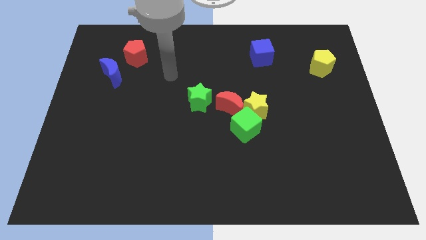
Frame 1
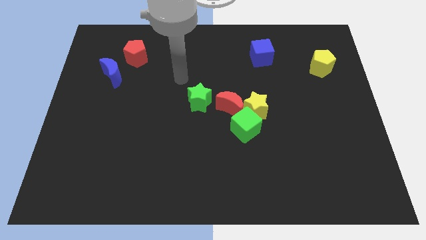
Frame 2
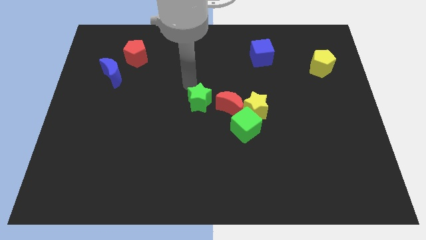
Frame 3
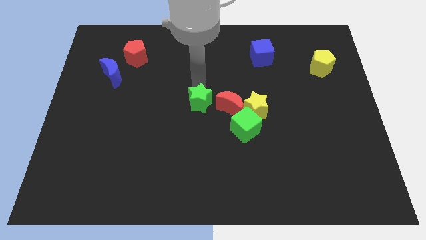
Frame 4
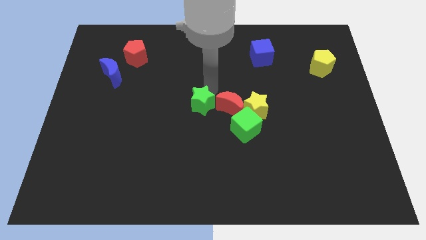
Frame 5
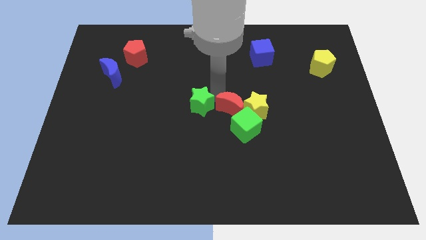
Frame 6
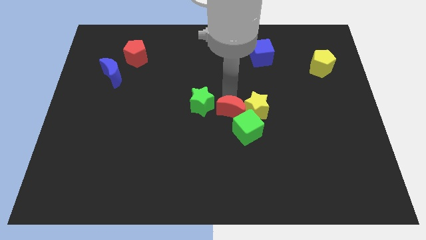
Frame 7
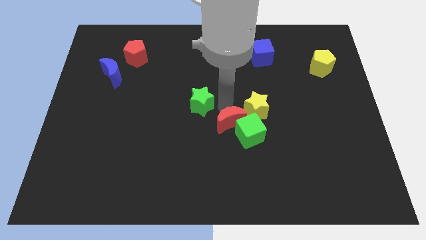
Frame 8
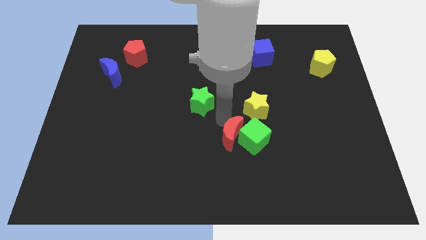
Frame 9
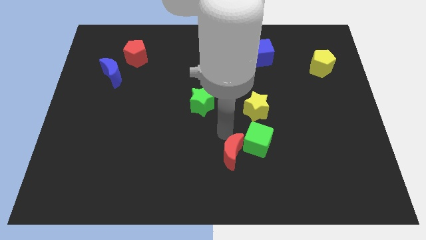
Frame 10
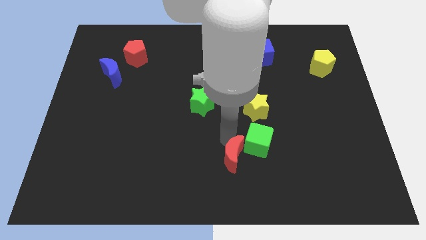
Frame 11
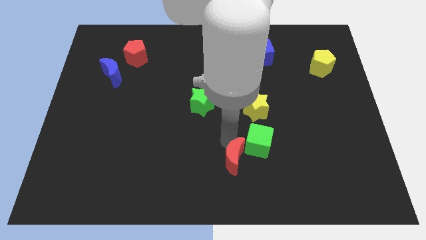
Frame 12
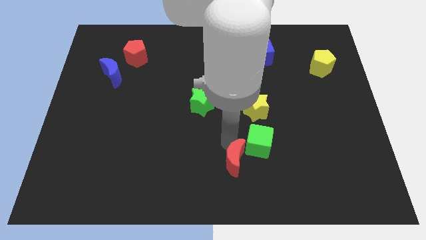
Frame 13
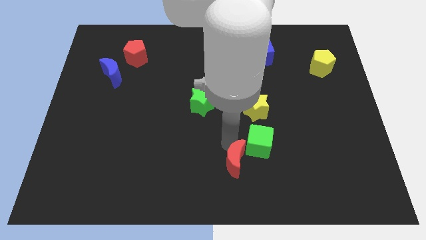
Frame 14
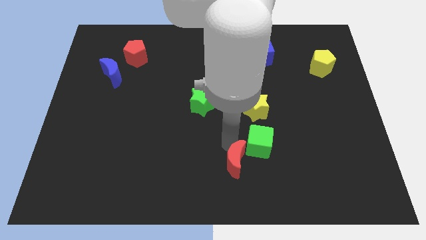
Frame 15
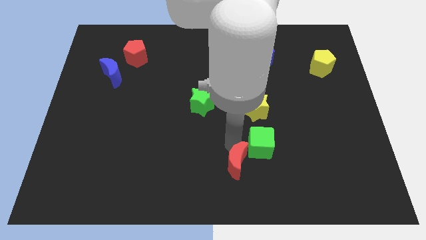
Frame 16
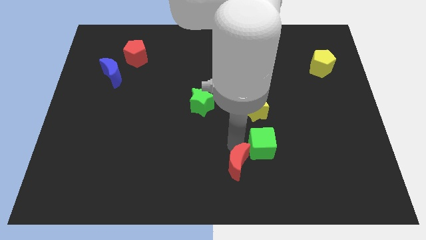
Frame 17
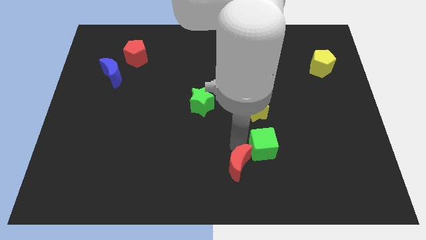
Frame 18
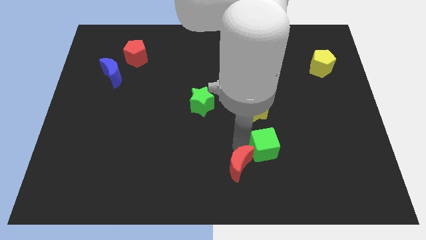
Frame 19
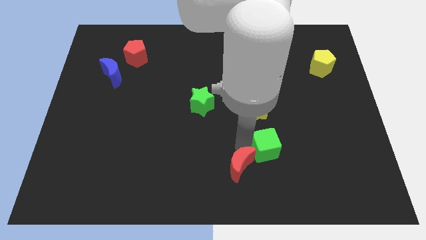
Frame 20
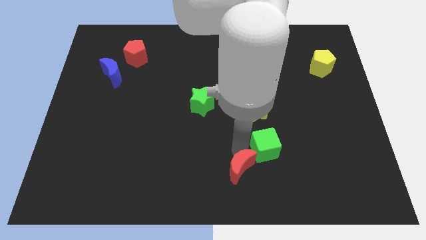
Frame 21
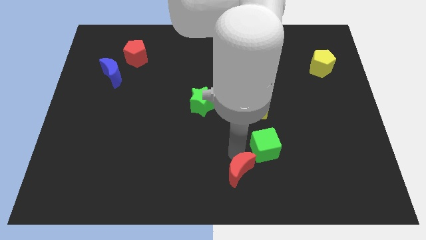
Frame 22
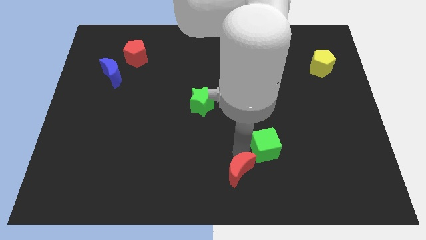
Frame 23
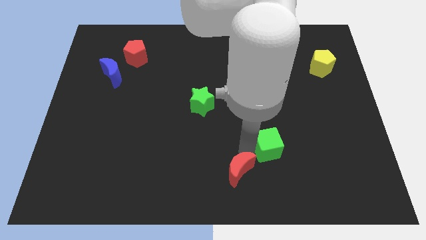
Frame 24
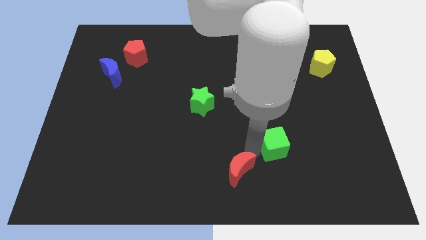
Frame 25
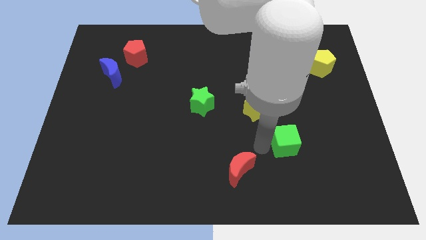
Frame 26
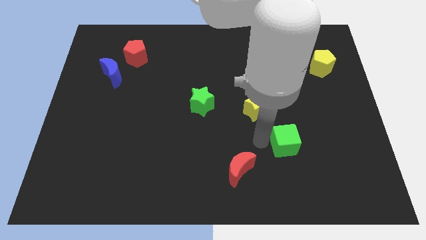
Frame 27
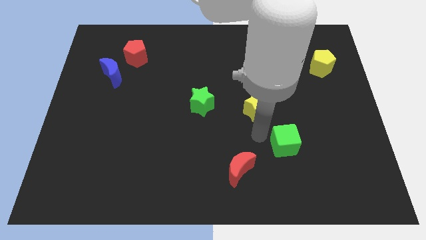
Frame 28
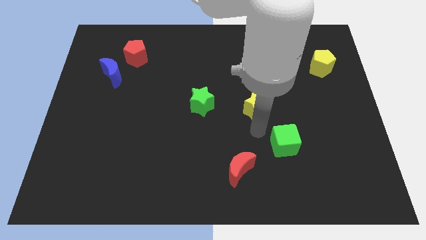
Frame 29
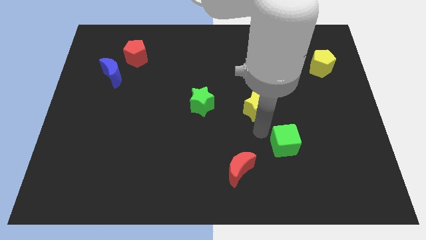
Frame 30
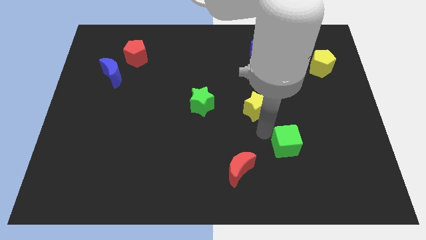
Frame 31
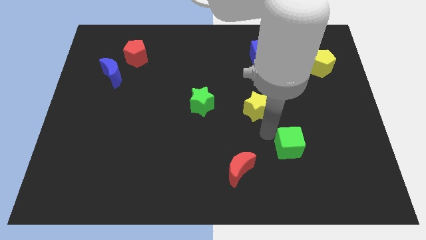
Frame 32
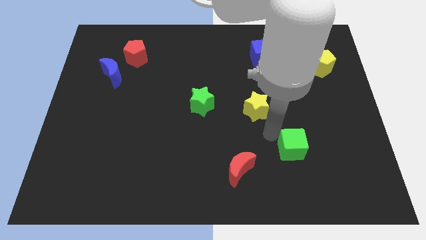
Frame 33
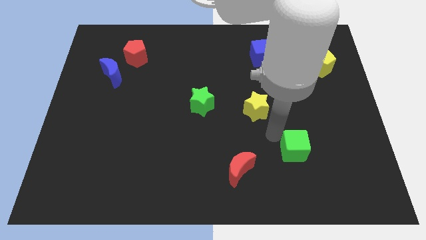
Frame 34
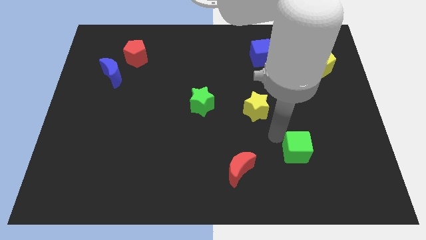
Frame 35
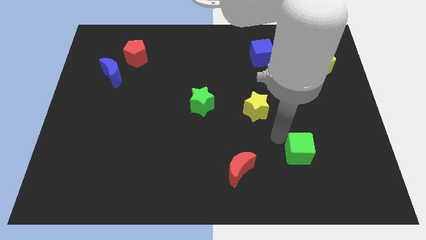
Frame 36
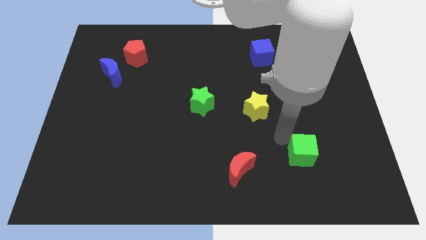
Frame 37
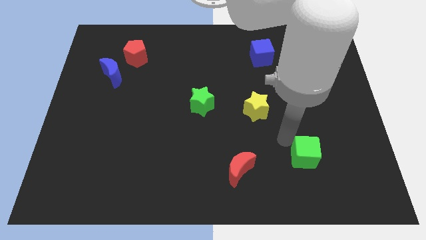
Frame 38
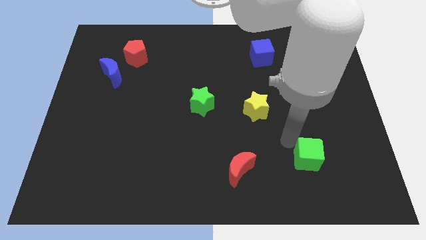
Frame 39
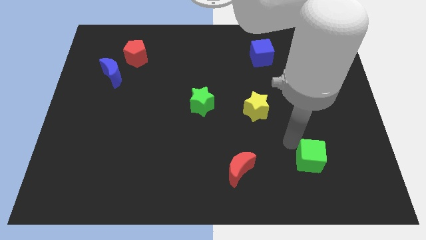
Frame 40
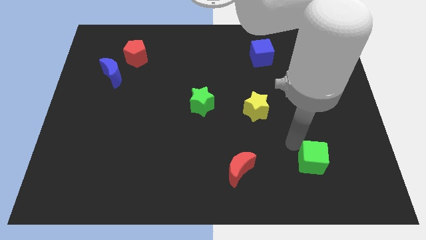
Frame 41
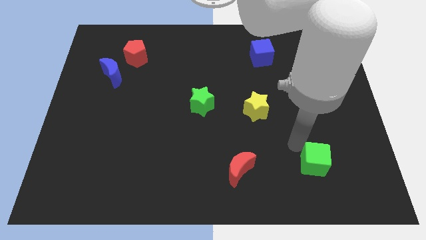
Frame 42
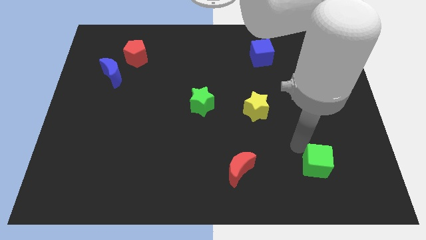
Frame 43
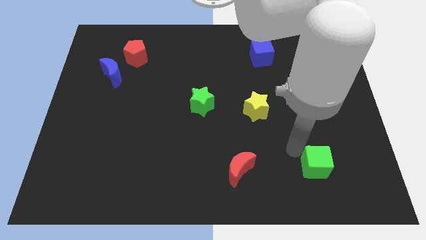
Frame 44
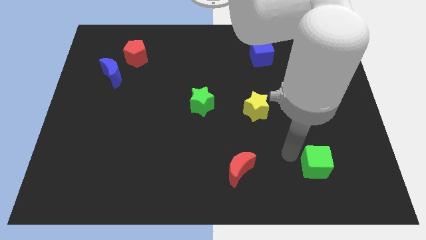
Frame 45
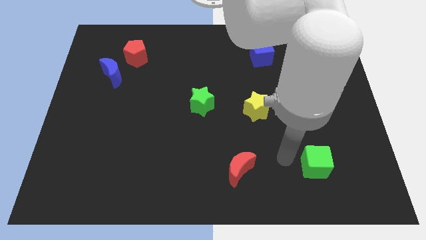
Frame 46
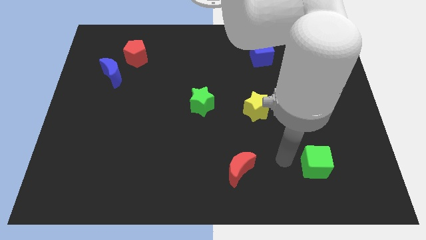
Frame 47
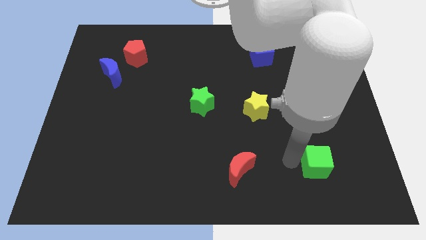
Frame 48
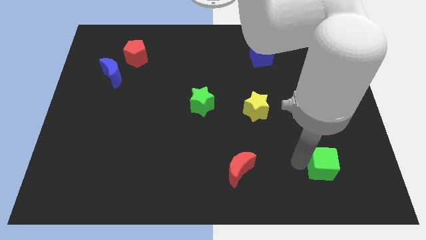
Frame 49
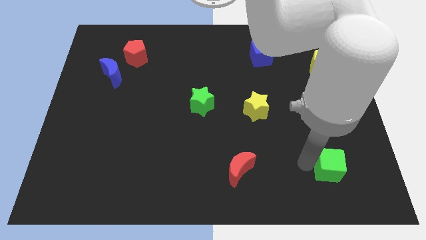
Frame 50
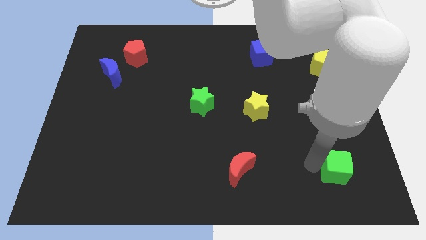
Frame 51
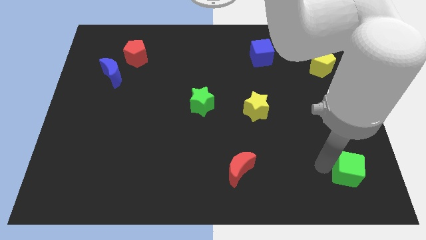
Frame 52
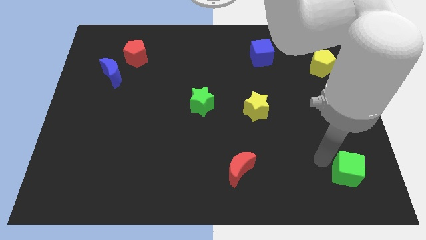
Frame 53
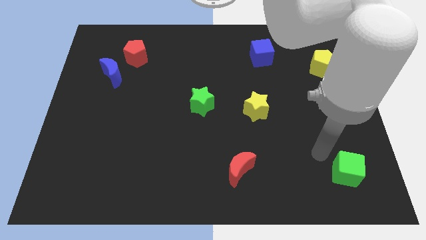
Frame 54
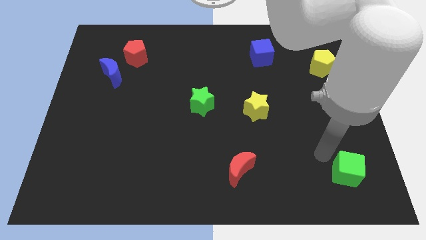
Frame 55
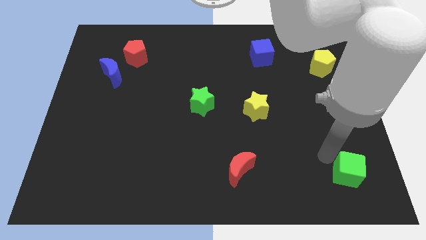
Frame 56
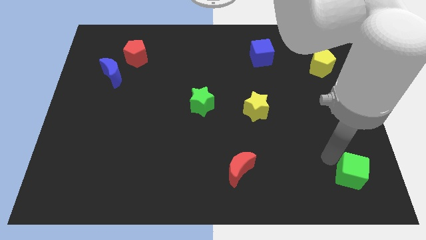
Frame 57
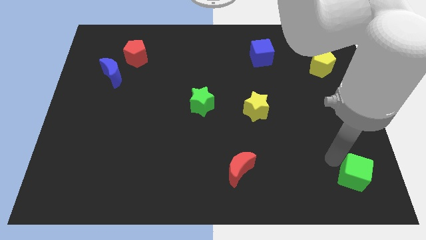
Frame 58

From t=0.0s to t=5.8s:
slide the green cube to the lower right corner

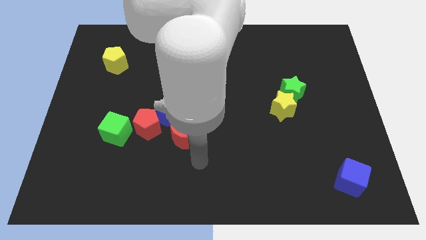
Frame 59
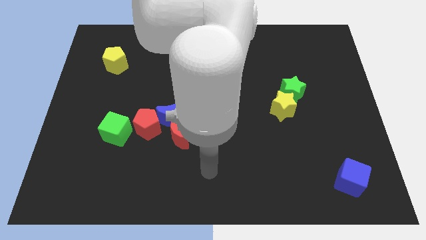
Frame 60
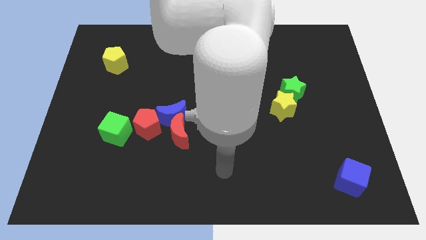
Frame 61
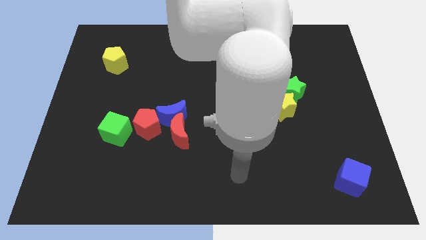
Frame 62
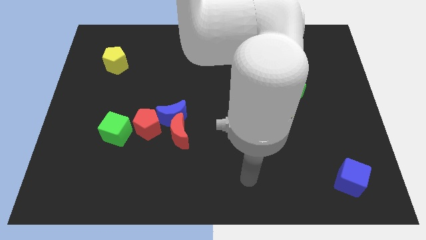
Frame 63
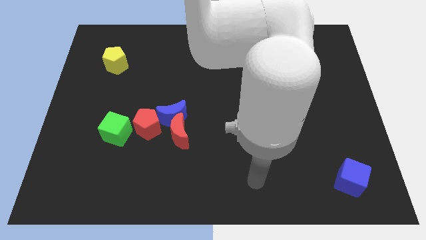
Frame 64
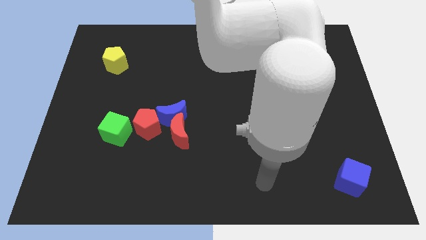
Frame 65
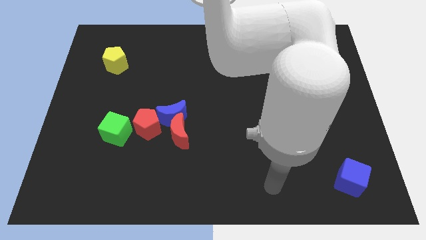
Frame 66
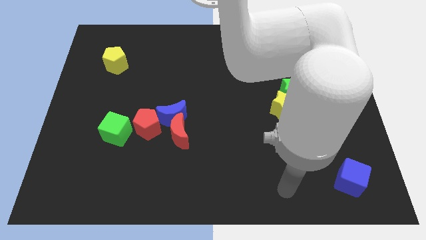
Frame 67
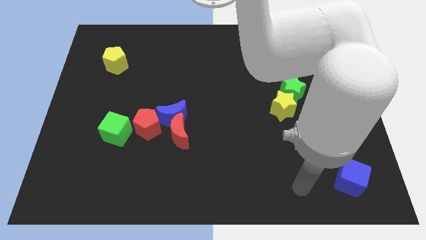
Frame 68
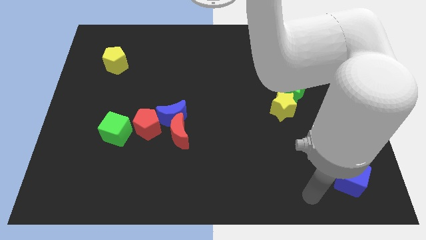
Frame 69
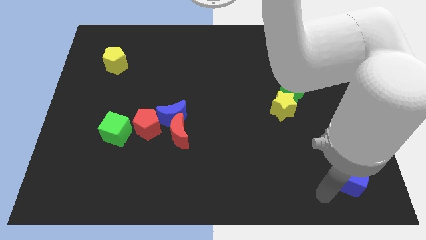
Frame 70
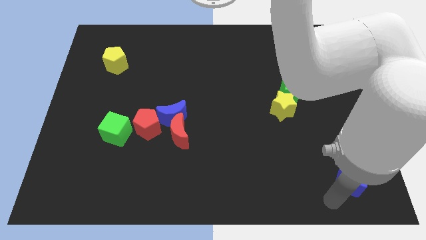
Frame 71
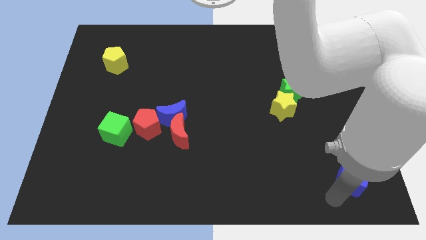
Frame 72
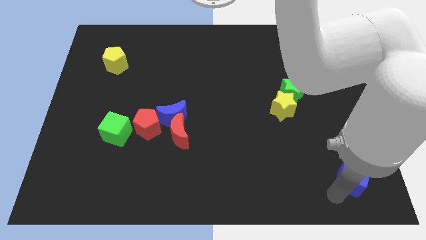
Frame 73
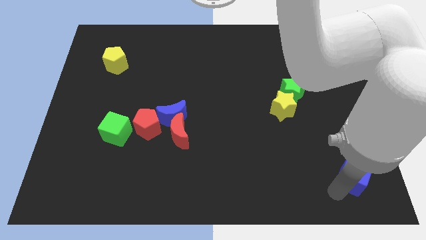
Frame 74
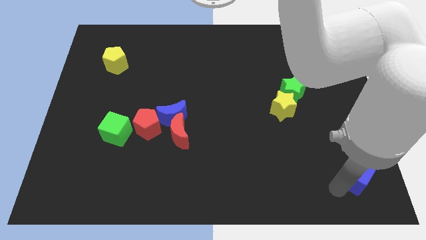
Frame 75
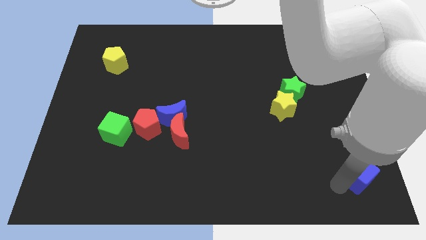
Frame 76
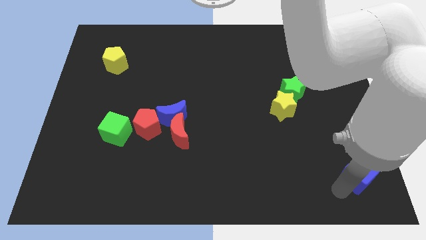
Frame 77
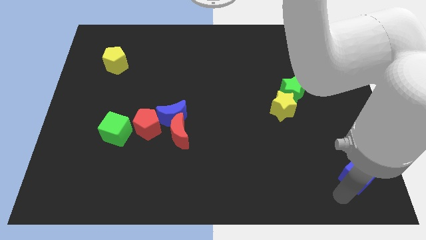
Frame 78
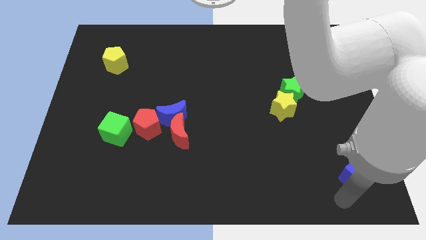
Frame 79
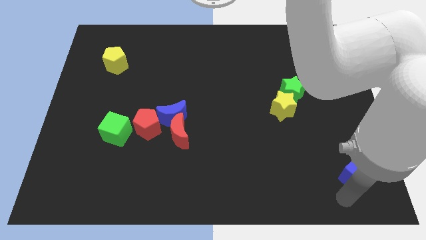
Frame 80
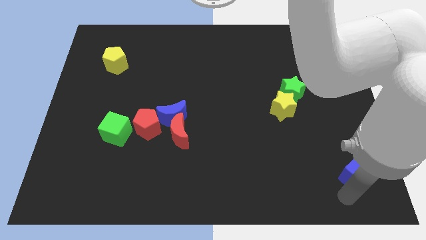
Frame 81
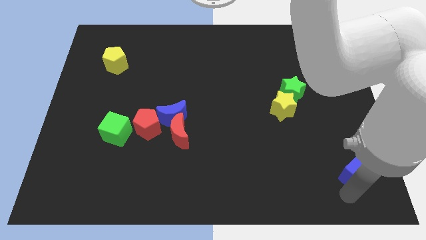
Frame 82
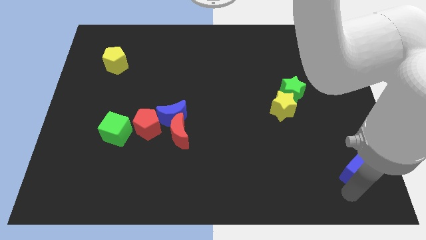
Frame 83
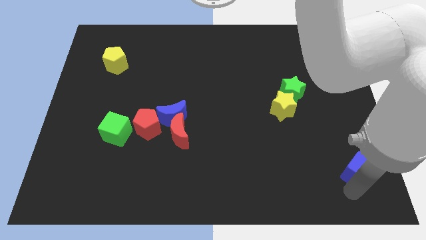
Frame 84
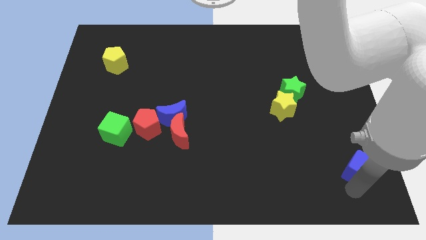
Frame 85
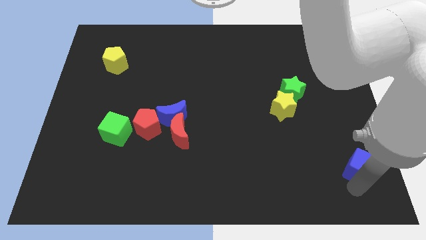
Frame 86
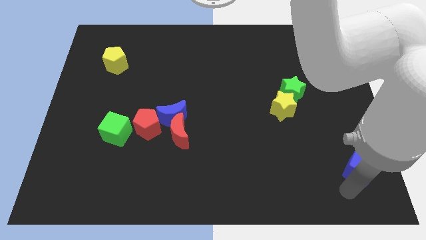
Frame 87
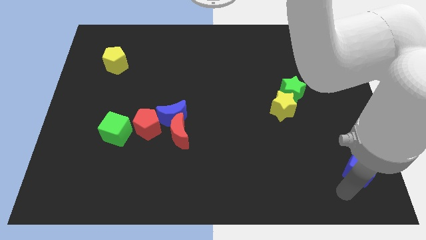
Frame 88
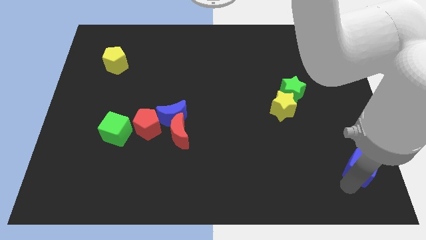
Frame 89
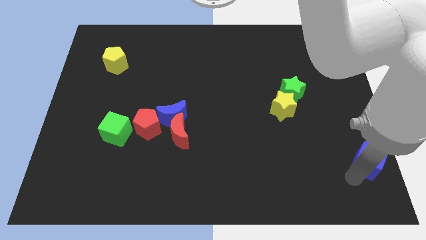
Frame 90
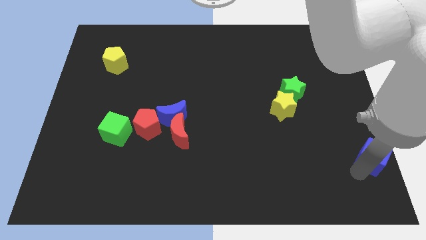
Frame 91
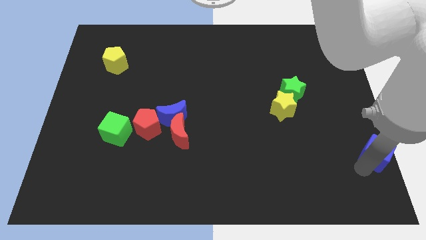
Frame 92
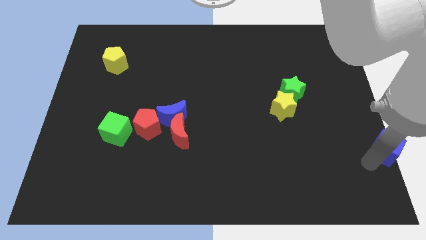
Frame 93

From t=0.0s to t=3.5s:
push the blue cube to the center right
